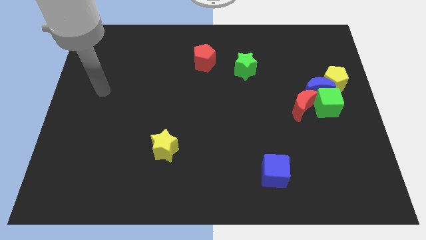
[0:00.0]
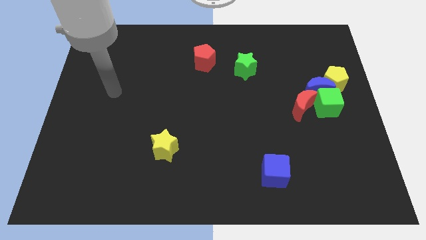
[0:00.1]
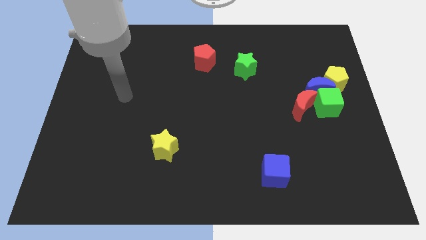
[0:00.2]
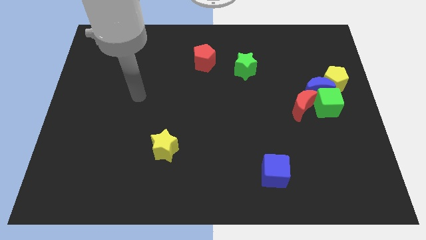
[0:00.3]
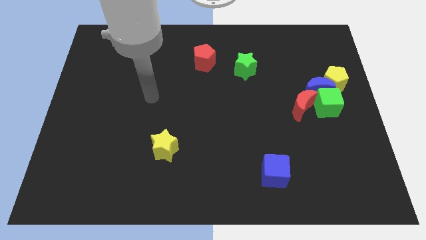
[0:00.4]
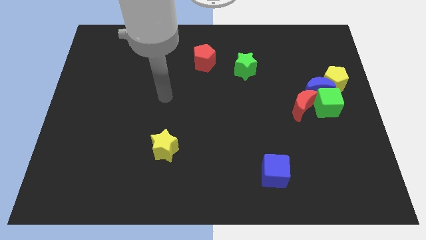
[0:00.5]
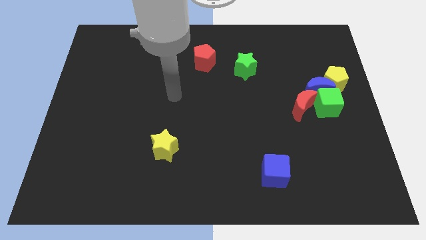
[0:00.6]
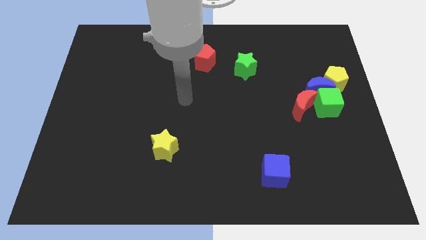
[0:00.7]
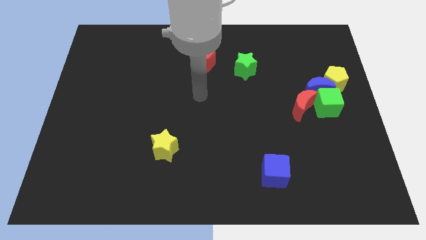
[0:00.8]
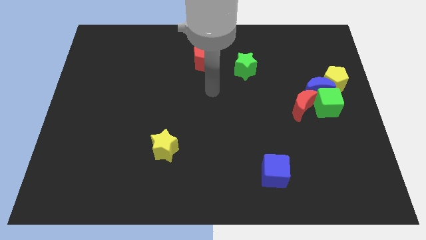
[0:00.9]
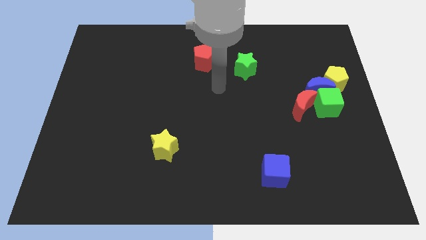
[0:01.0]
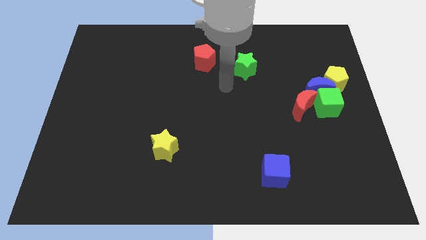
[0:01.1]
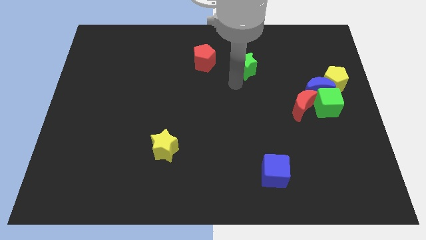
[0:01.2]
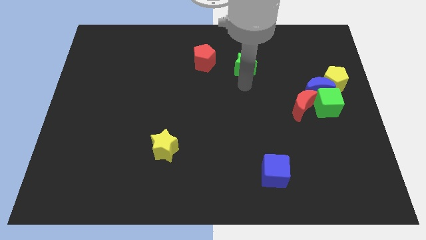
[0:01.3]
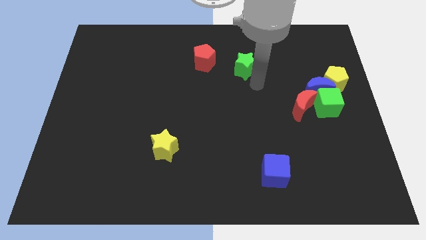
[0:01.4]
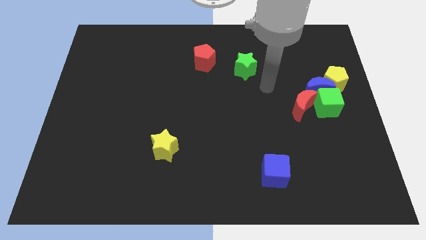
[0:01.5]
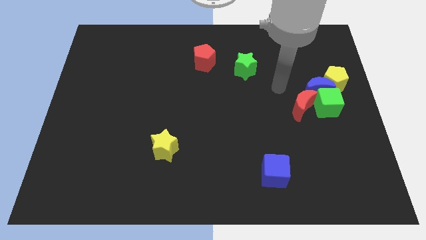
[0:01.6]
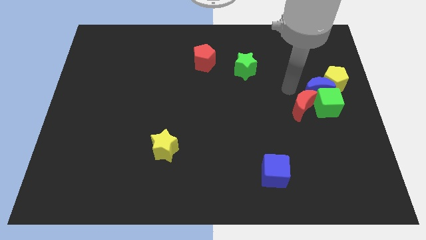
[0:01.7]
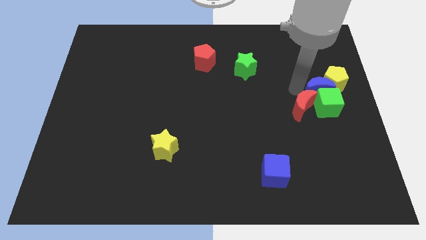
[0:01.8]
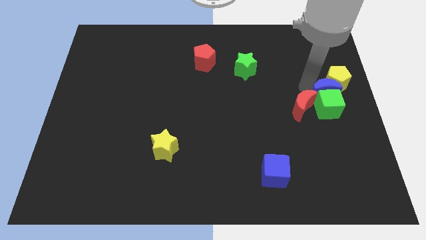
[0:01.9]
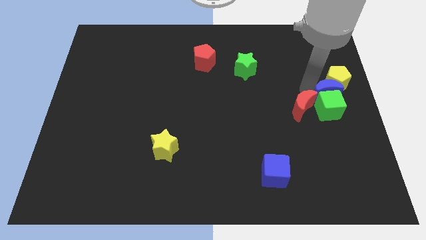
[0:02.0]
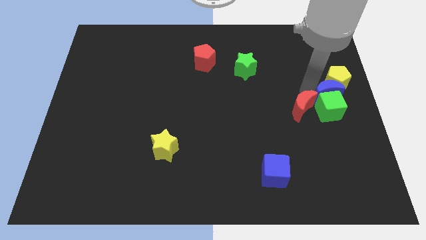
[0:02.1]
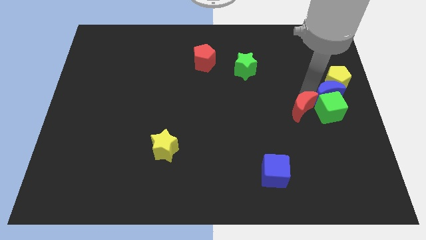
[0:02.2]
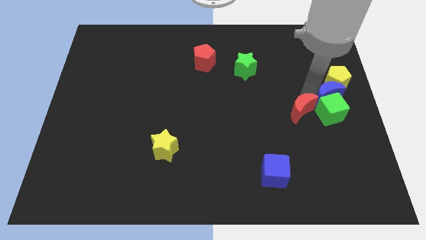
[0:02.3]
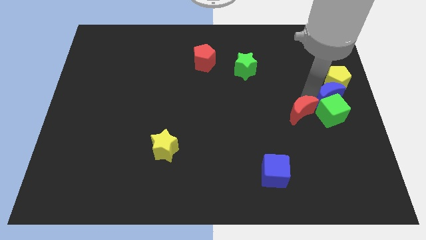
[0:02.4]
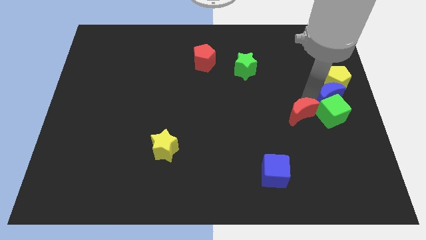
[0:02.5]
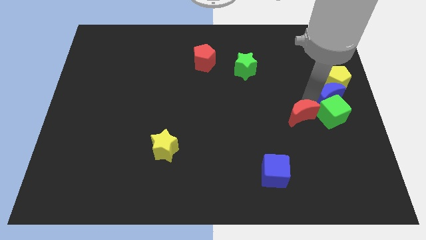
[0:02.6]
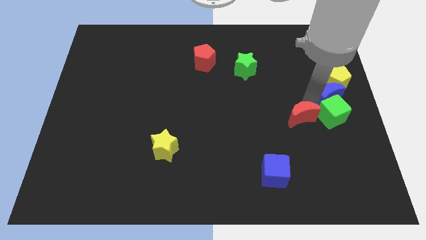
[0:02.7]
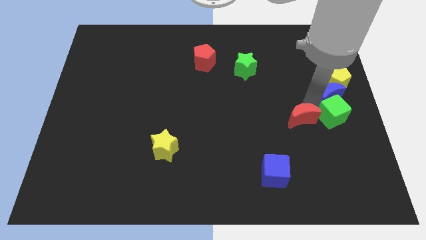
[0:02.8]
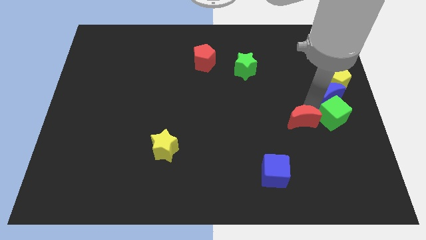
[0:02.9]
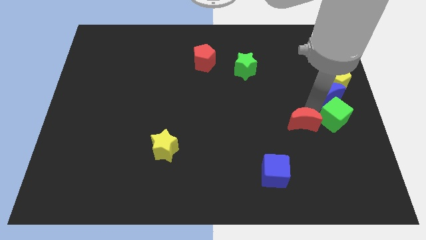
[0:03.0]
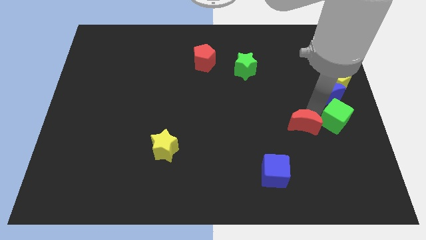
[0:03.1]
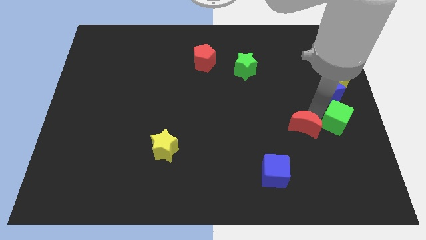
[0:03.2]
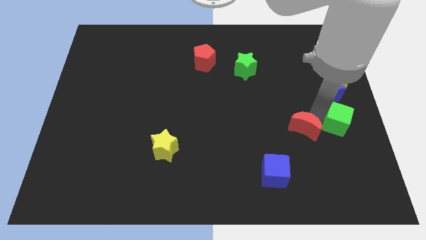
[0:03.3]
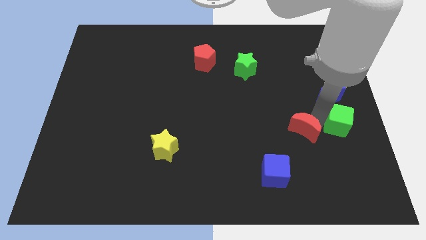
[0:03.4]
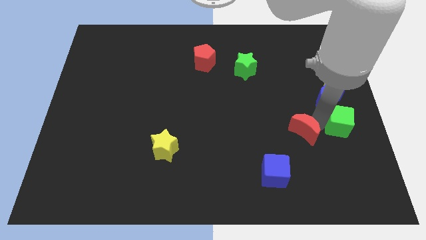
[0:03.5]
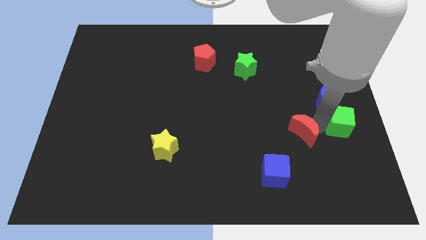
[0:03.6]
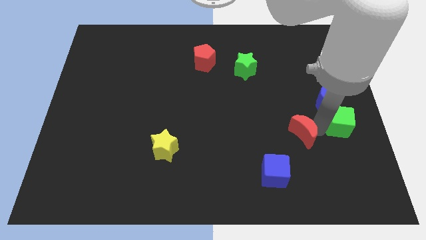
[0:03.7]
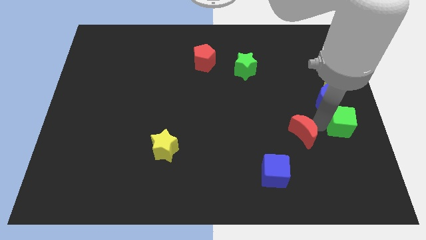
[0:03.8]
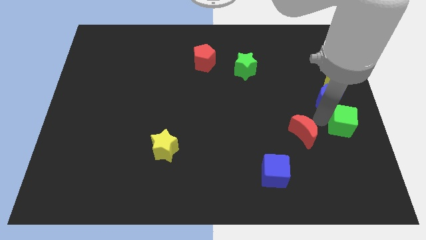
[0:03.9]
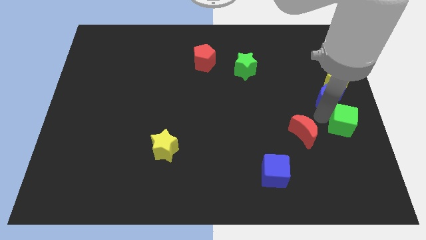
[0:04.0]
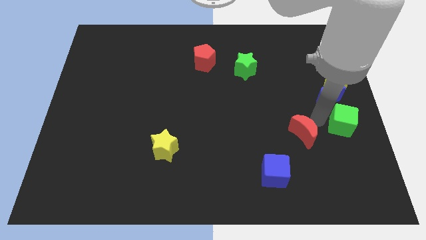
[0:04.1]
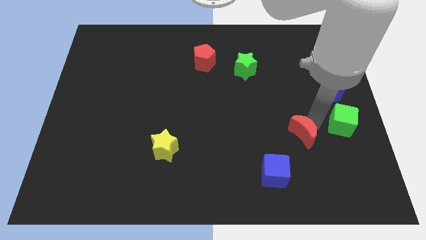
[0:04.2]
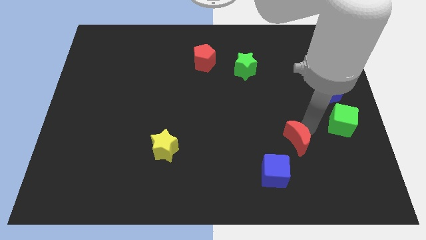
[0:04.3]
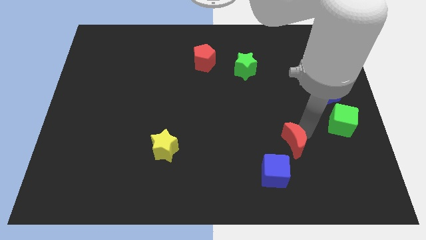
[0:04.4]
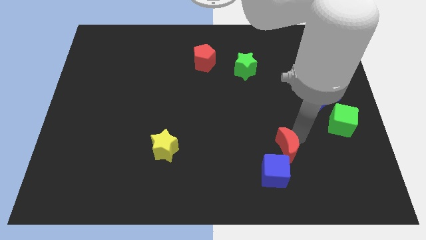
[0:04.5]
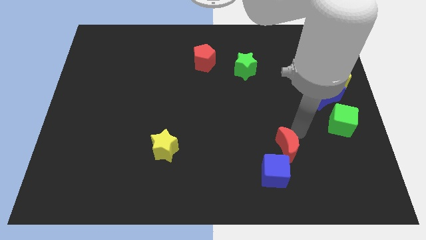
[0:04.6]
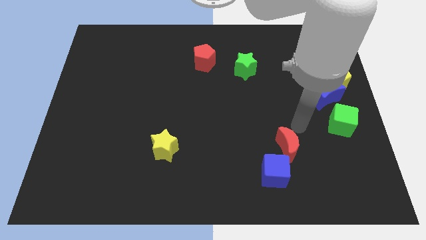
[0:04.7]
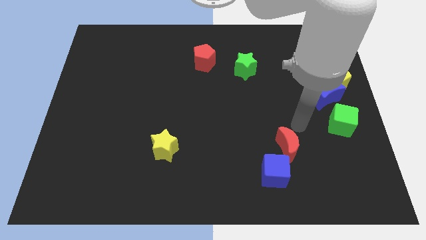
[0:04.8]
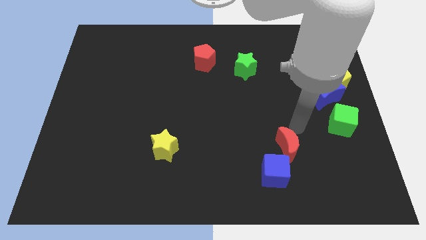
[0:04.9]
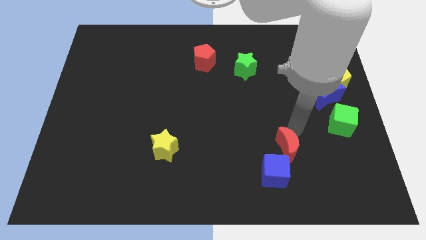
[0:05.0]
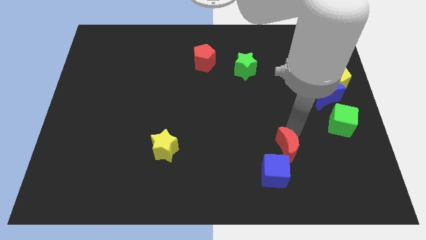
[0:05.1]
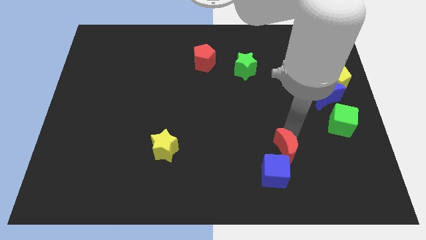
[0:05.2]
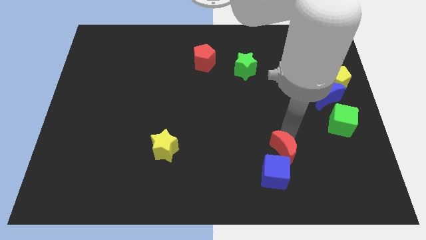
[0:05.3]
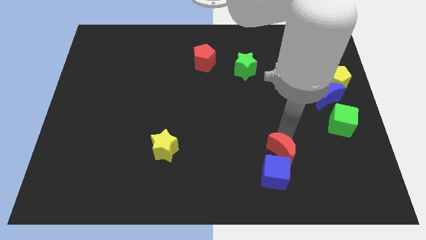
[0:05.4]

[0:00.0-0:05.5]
move the red moon close to the blue cube

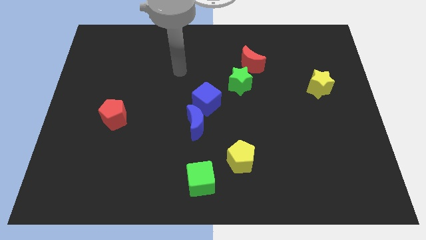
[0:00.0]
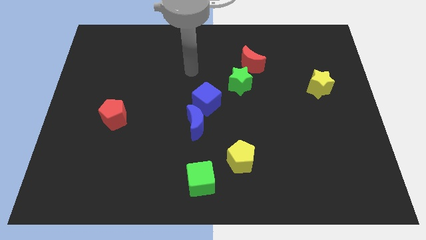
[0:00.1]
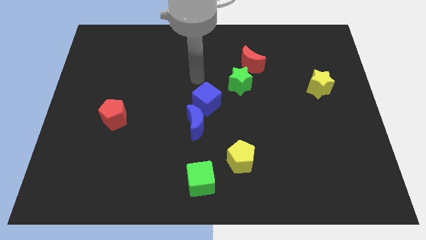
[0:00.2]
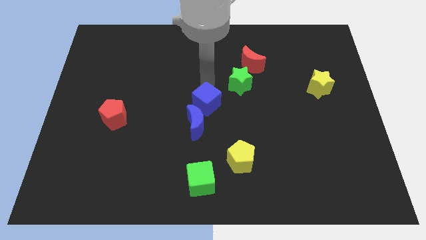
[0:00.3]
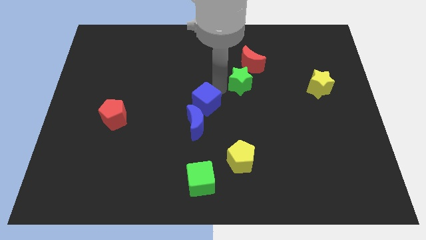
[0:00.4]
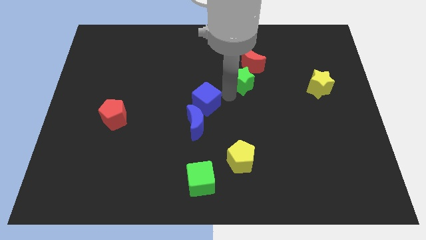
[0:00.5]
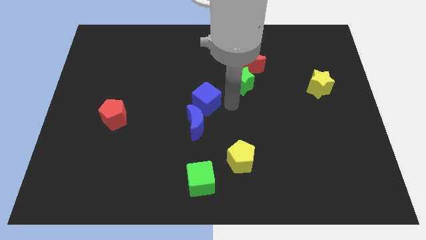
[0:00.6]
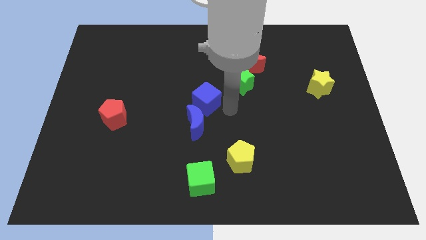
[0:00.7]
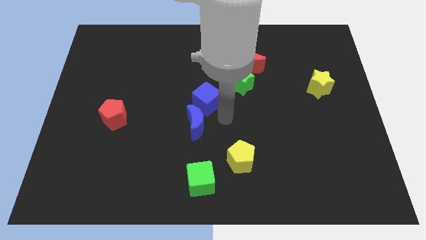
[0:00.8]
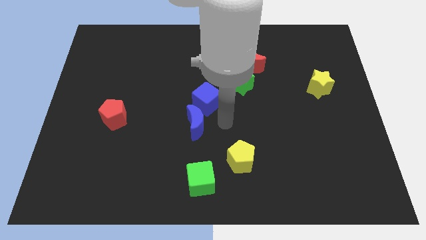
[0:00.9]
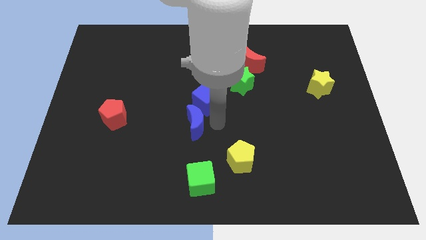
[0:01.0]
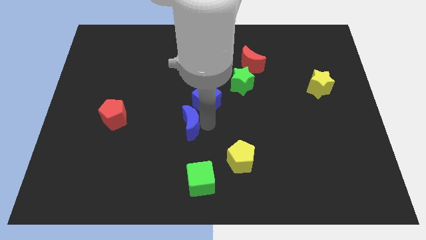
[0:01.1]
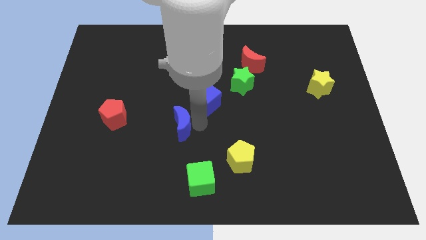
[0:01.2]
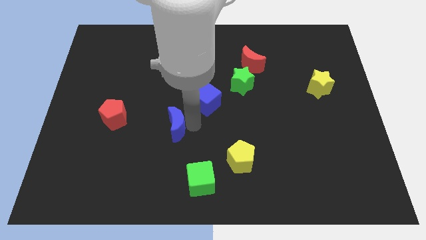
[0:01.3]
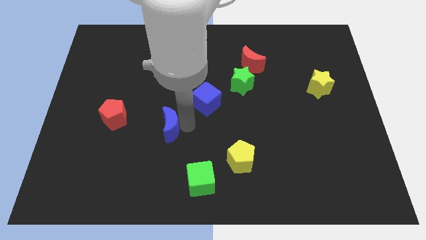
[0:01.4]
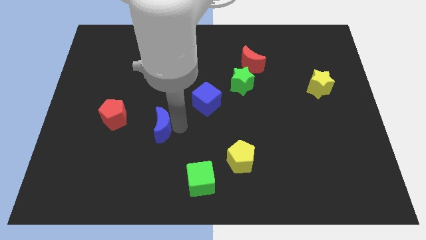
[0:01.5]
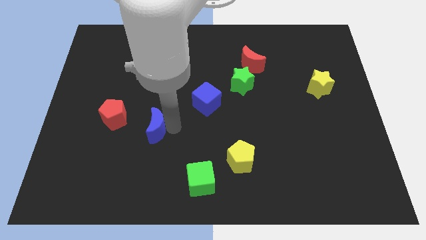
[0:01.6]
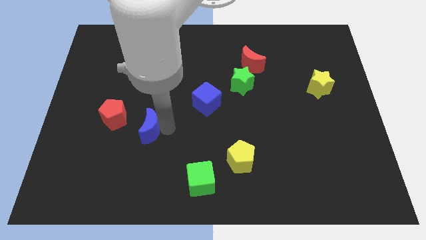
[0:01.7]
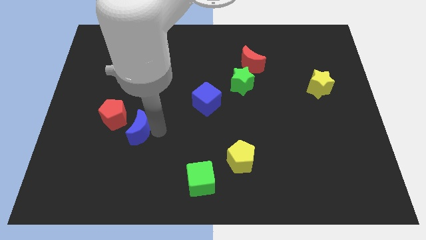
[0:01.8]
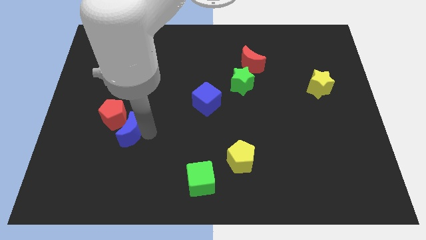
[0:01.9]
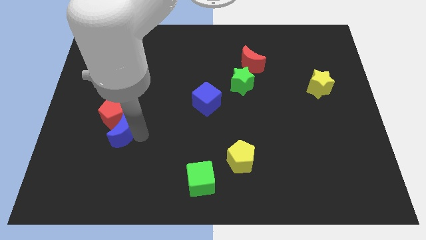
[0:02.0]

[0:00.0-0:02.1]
slide the blue moon close to the red pentagon

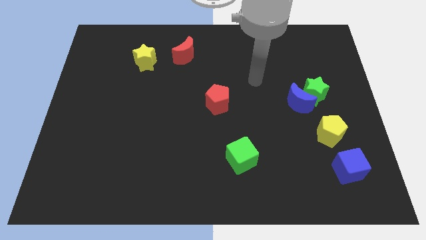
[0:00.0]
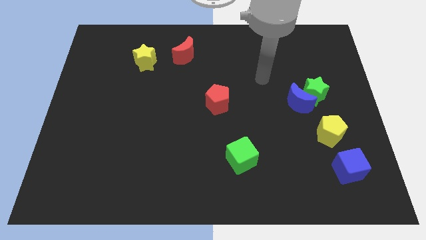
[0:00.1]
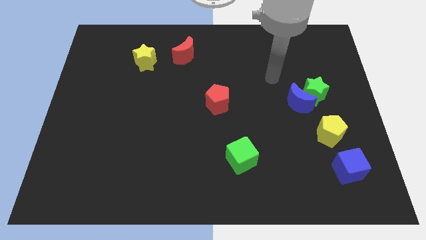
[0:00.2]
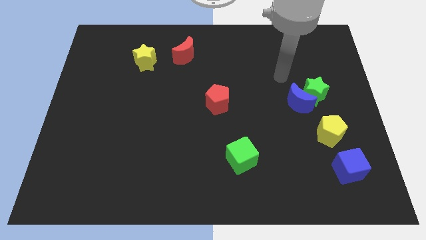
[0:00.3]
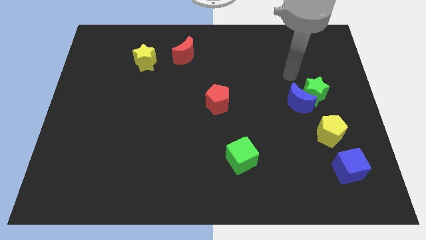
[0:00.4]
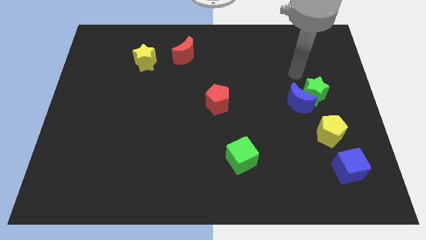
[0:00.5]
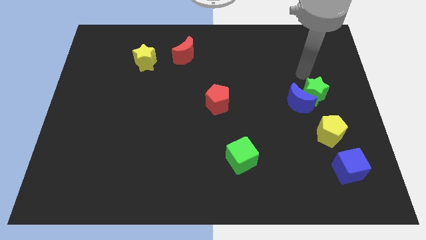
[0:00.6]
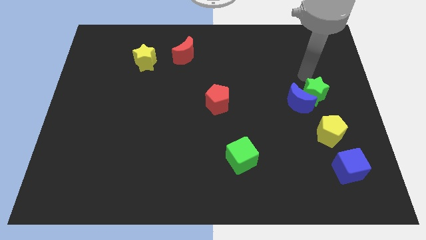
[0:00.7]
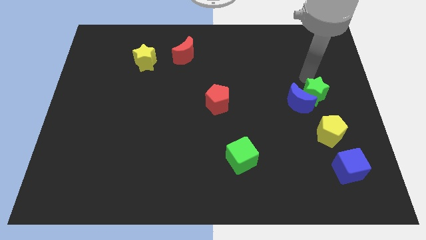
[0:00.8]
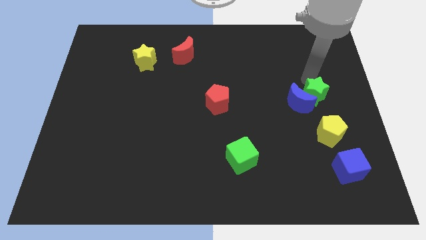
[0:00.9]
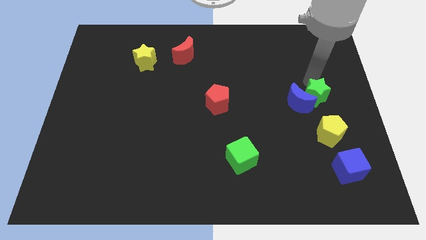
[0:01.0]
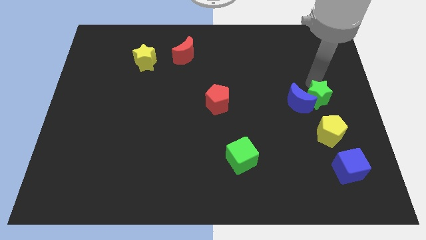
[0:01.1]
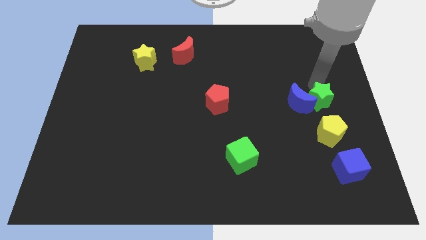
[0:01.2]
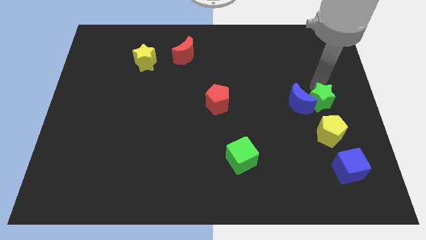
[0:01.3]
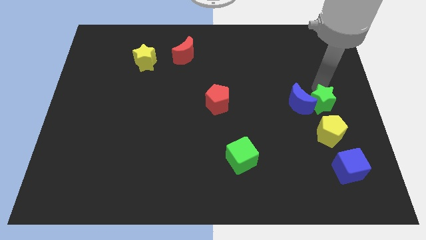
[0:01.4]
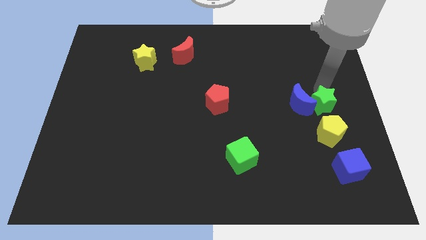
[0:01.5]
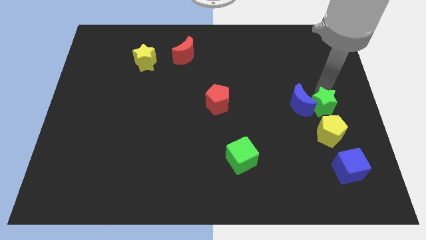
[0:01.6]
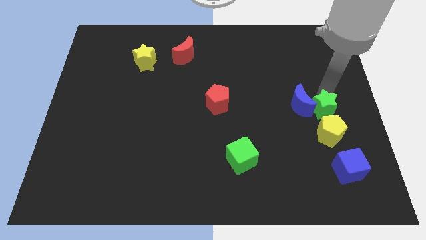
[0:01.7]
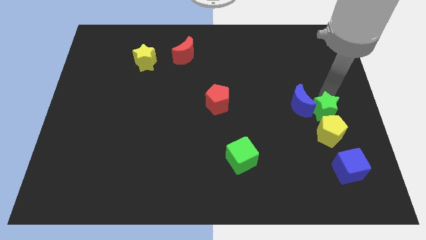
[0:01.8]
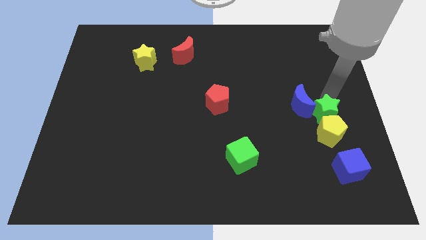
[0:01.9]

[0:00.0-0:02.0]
push the green star towards the yellow pentagon
